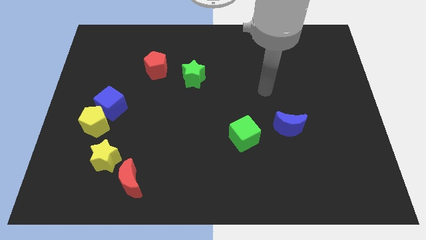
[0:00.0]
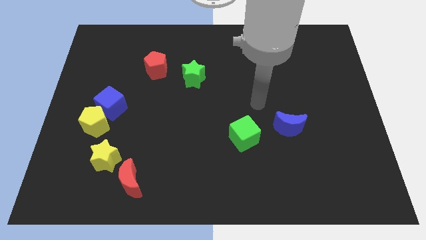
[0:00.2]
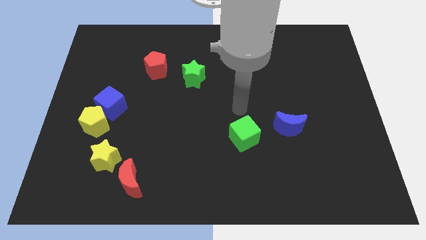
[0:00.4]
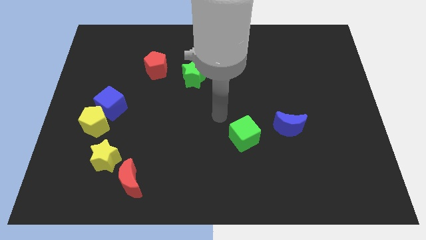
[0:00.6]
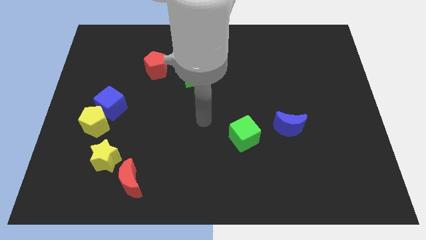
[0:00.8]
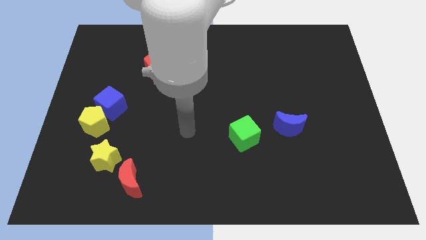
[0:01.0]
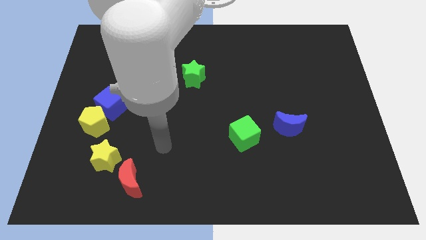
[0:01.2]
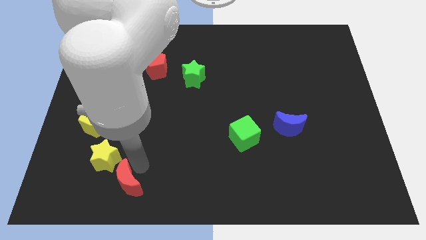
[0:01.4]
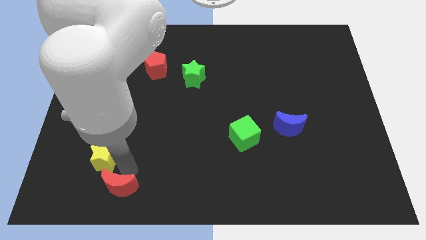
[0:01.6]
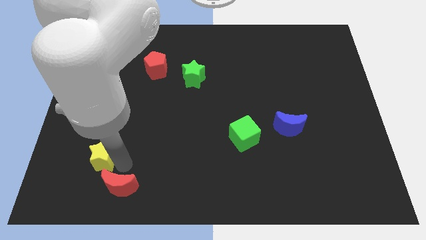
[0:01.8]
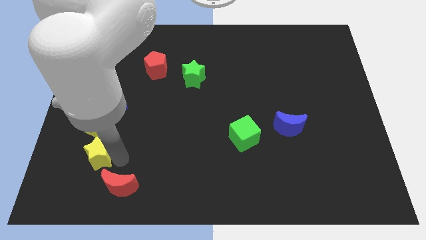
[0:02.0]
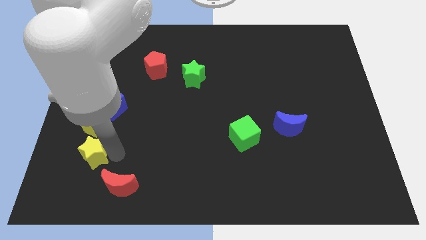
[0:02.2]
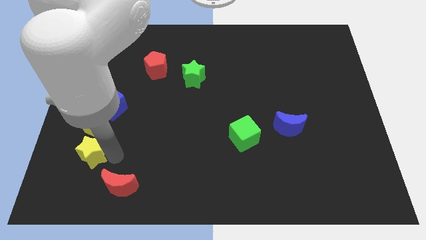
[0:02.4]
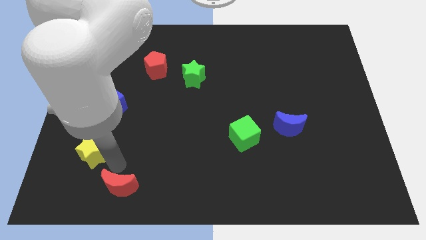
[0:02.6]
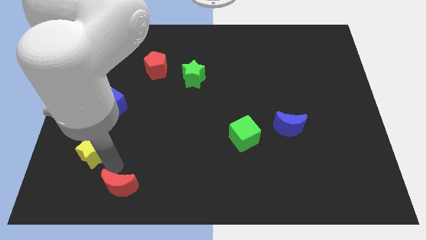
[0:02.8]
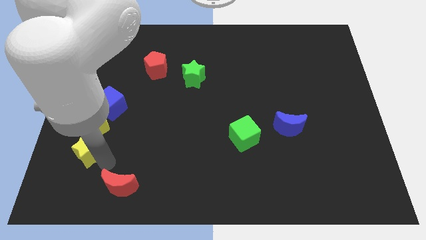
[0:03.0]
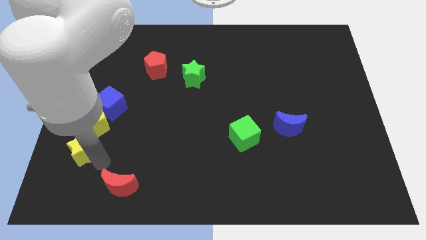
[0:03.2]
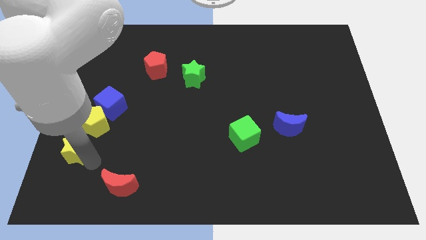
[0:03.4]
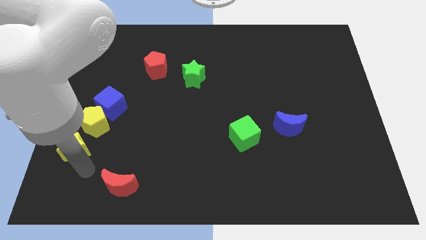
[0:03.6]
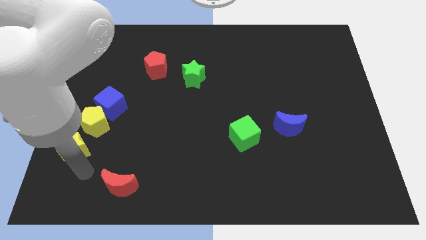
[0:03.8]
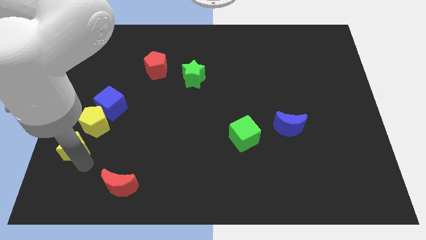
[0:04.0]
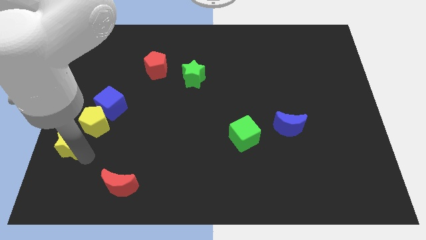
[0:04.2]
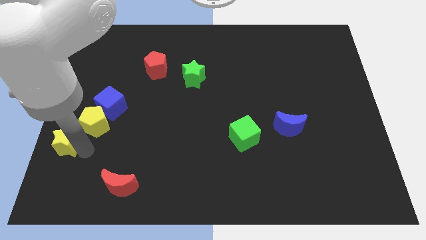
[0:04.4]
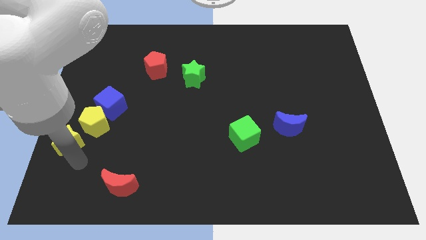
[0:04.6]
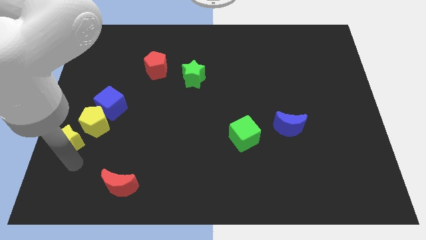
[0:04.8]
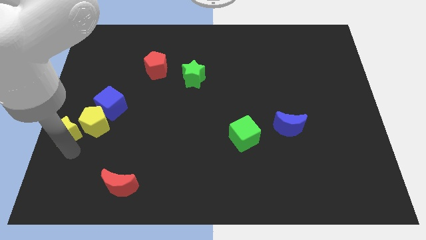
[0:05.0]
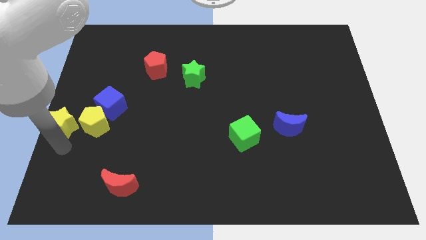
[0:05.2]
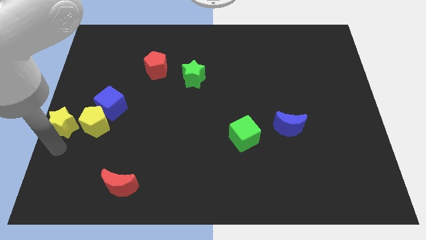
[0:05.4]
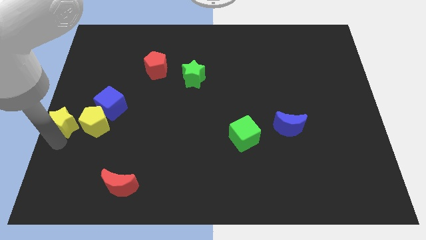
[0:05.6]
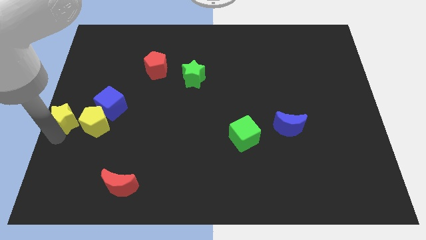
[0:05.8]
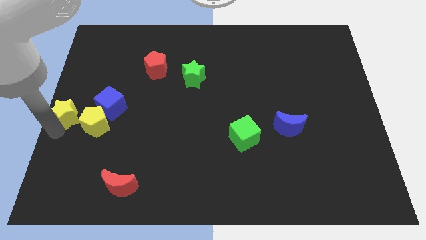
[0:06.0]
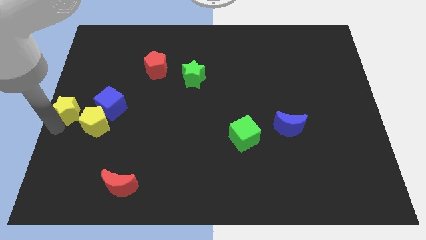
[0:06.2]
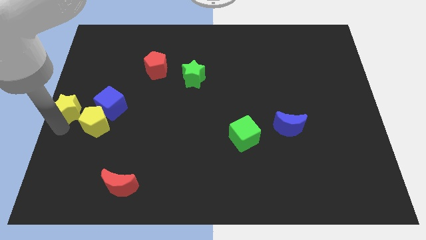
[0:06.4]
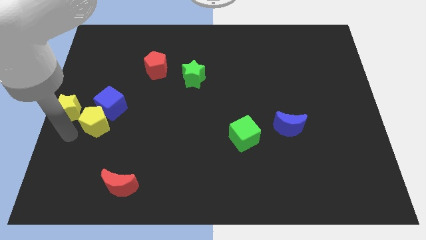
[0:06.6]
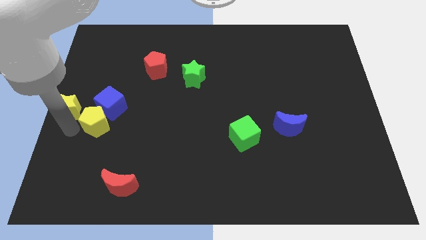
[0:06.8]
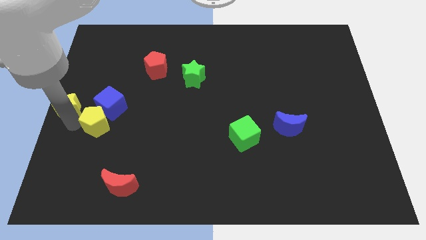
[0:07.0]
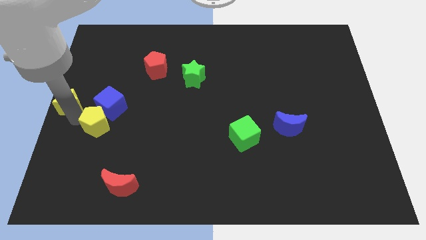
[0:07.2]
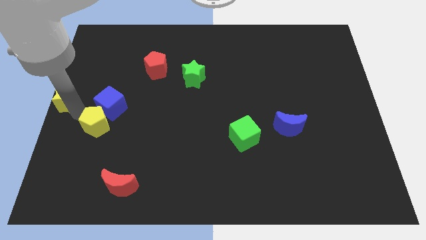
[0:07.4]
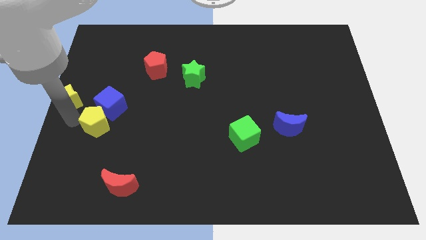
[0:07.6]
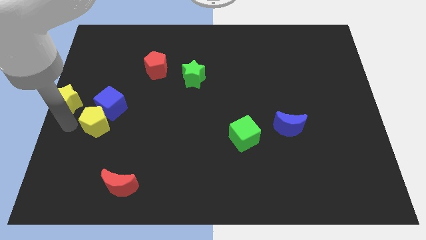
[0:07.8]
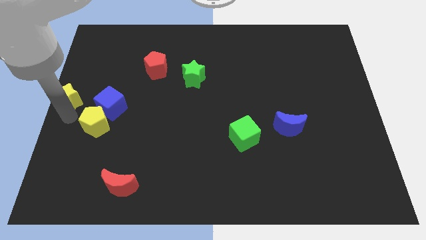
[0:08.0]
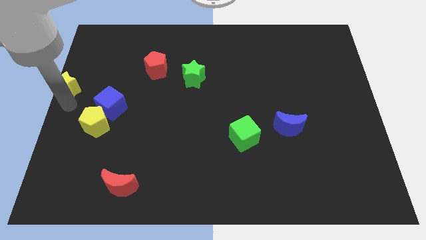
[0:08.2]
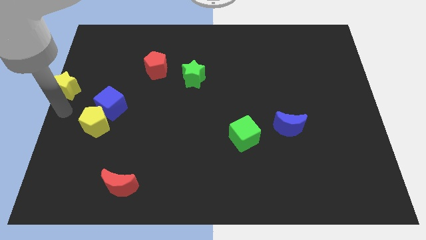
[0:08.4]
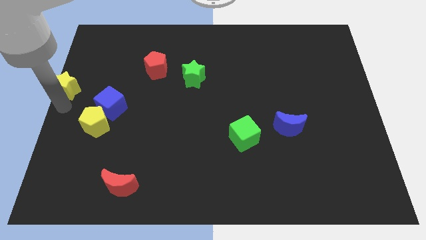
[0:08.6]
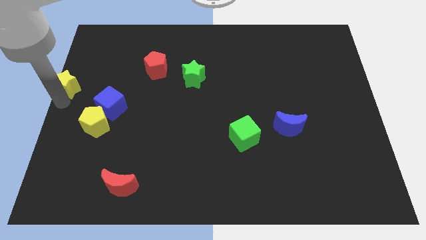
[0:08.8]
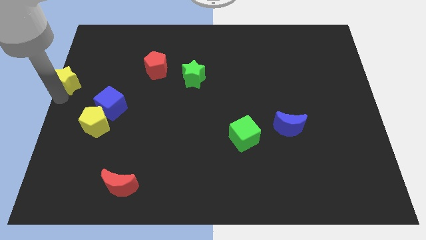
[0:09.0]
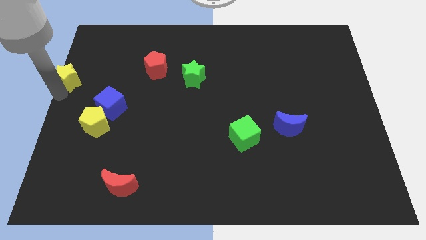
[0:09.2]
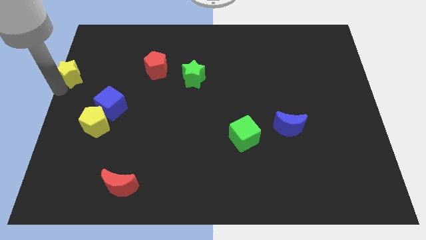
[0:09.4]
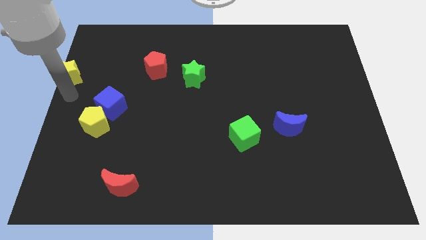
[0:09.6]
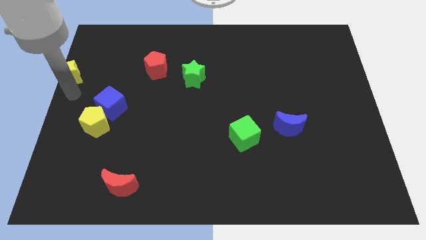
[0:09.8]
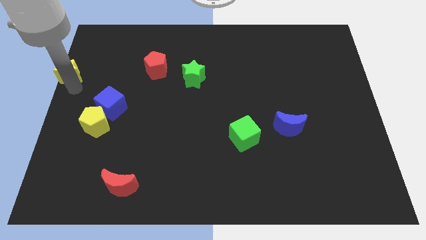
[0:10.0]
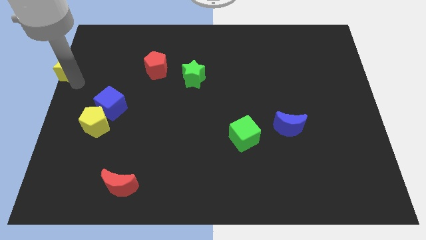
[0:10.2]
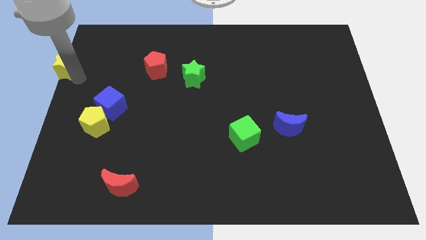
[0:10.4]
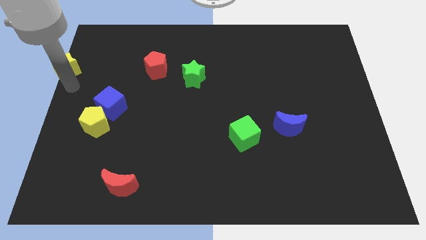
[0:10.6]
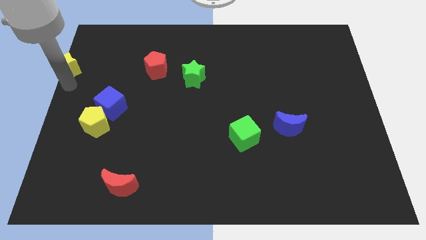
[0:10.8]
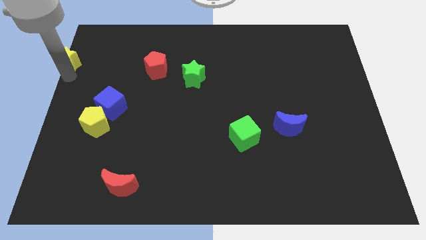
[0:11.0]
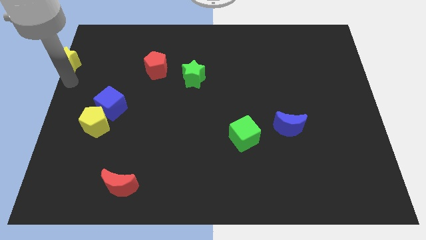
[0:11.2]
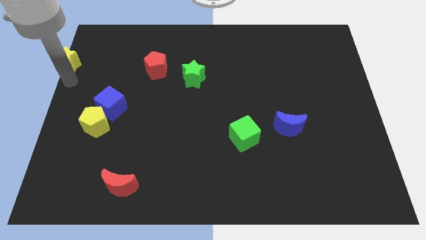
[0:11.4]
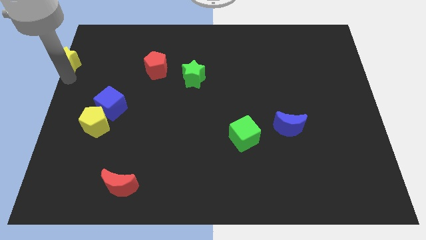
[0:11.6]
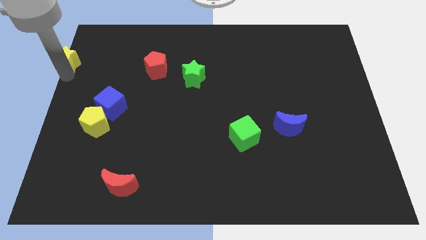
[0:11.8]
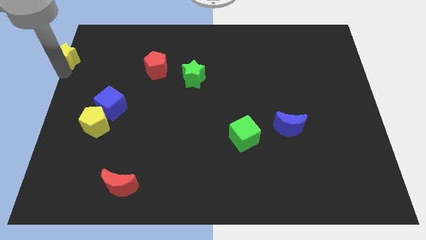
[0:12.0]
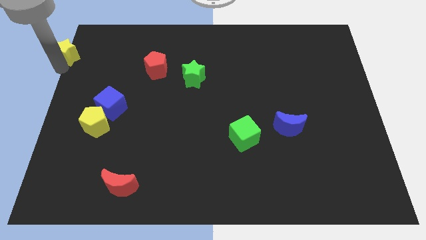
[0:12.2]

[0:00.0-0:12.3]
push the yellow star to the upper left corner
